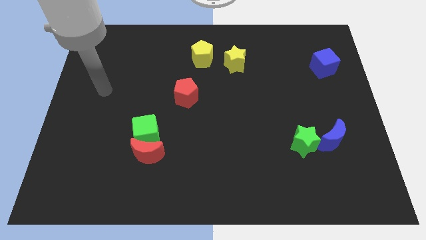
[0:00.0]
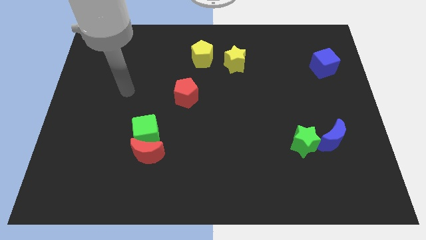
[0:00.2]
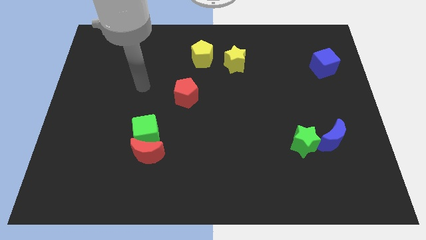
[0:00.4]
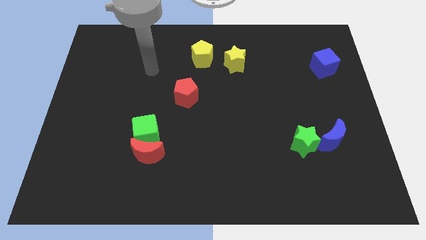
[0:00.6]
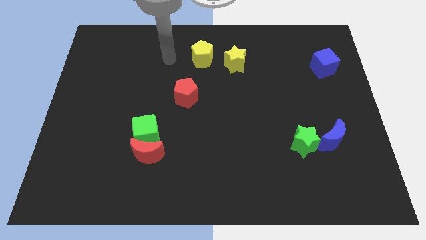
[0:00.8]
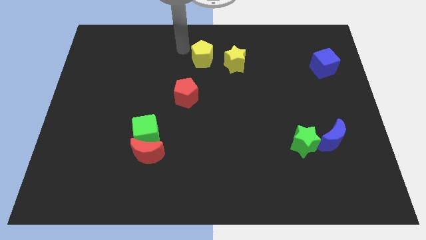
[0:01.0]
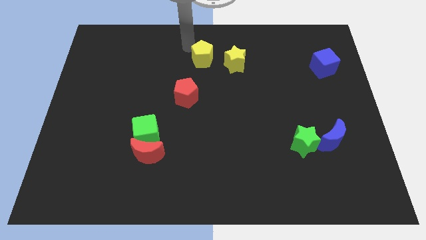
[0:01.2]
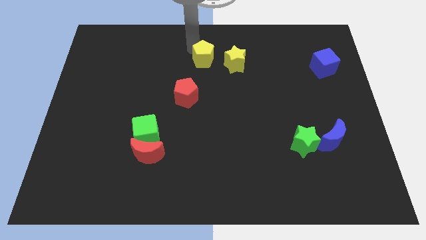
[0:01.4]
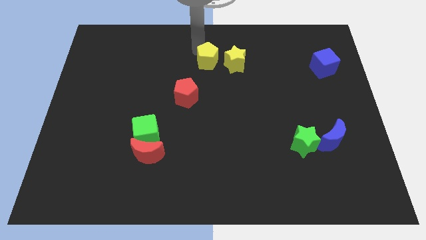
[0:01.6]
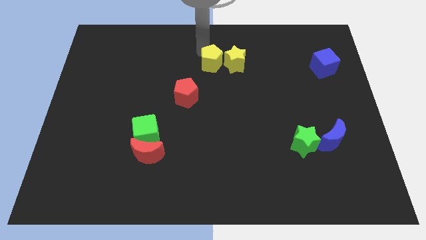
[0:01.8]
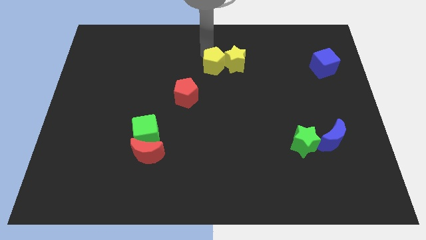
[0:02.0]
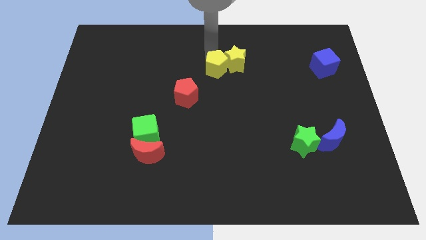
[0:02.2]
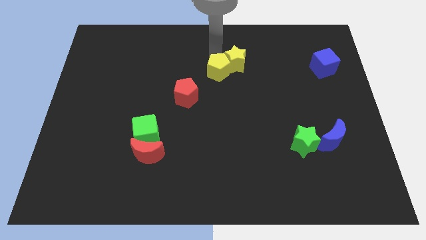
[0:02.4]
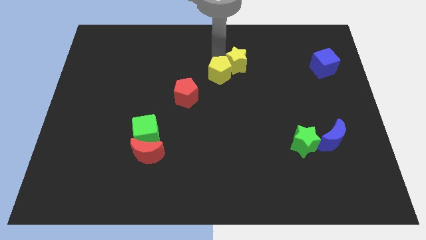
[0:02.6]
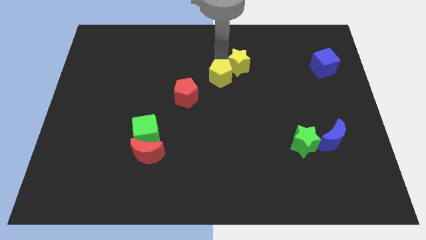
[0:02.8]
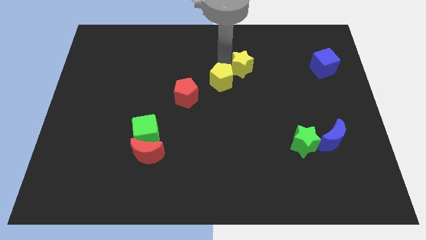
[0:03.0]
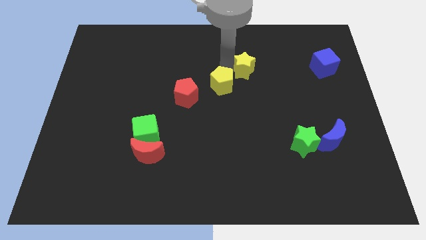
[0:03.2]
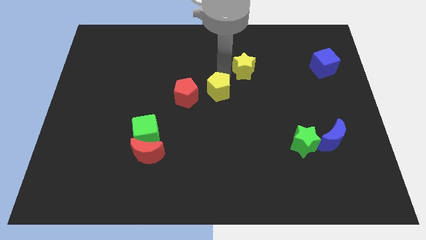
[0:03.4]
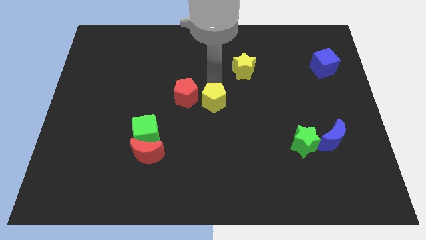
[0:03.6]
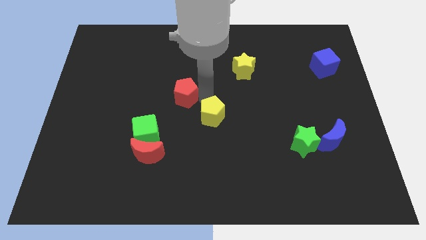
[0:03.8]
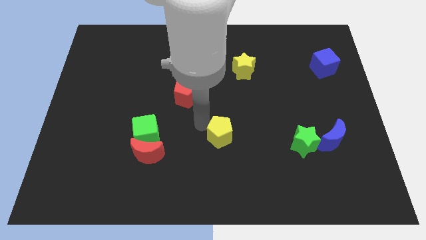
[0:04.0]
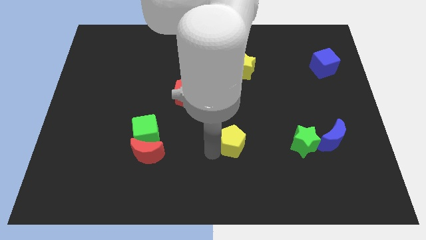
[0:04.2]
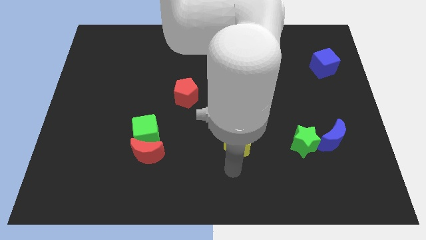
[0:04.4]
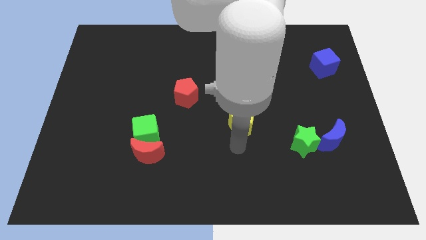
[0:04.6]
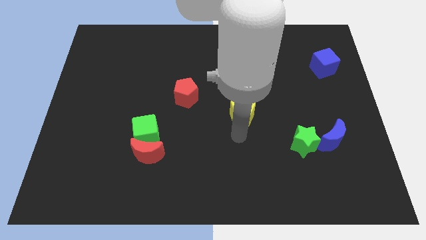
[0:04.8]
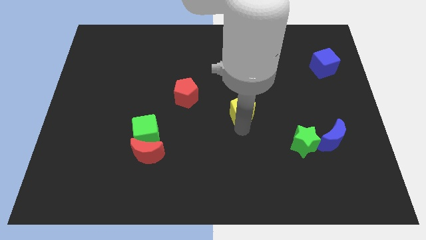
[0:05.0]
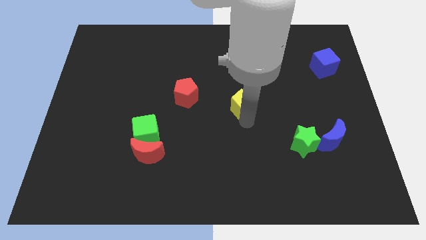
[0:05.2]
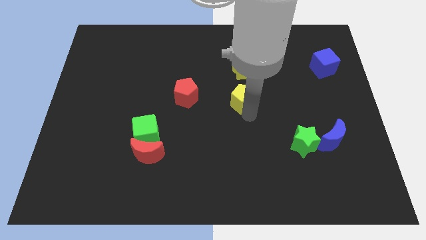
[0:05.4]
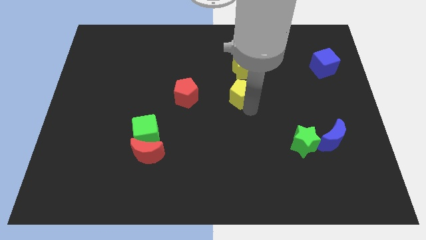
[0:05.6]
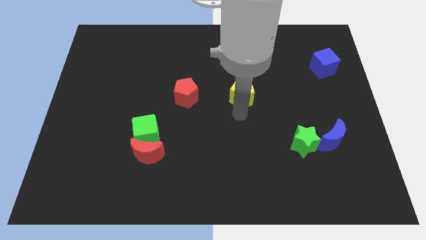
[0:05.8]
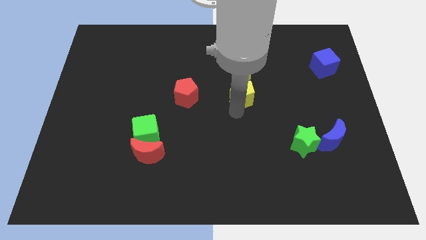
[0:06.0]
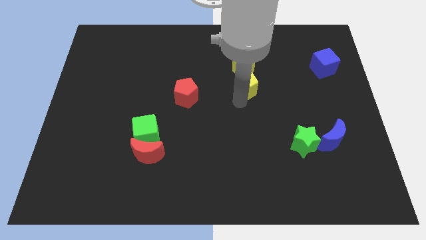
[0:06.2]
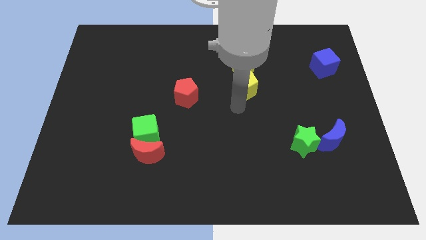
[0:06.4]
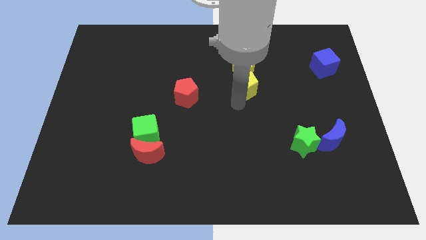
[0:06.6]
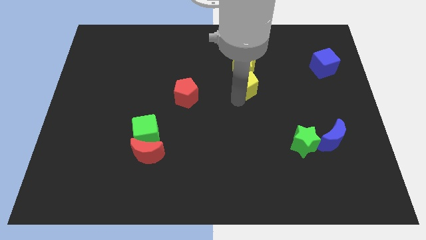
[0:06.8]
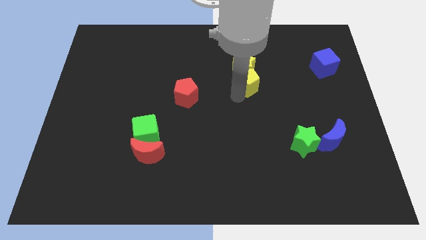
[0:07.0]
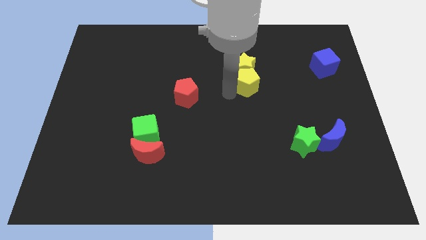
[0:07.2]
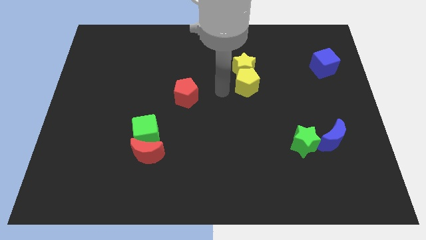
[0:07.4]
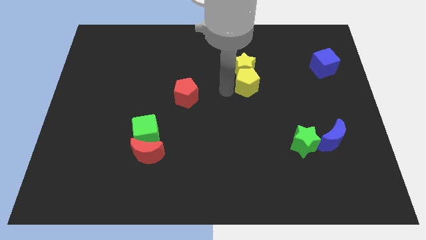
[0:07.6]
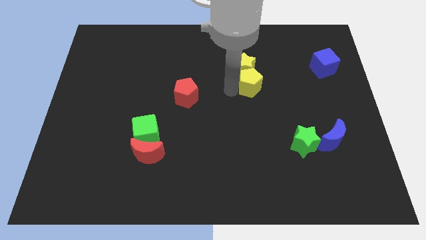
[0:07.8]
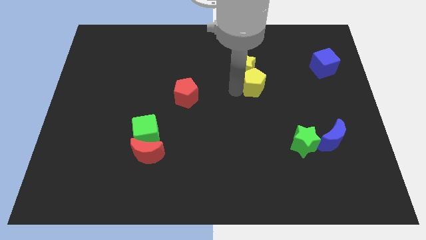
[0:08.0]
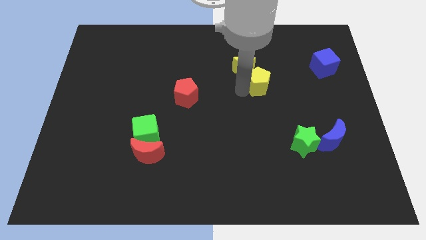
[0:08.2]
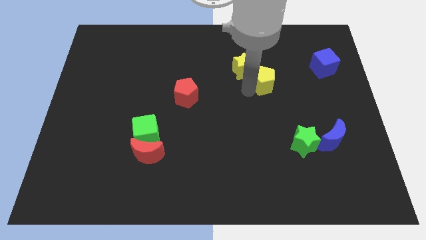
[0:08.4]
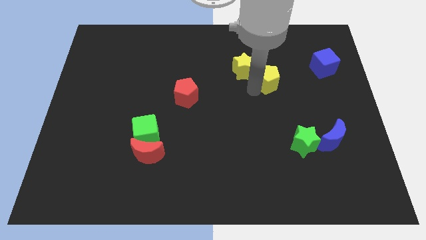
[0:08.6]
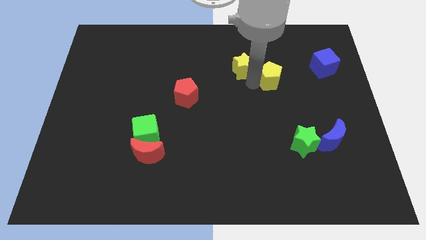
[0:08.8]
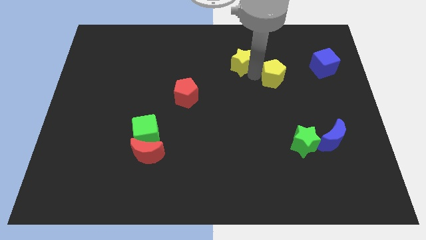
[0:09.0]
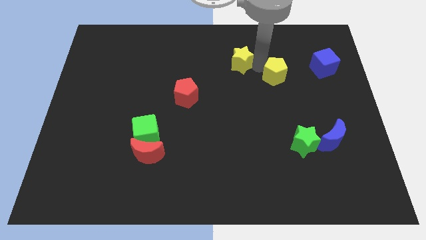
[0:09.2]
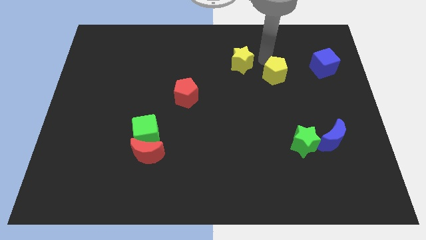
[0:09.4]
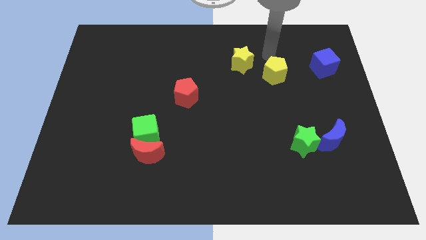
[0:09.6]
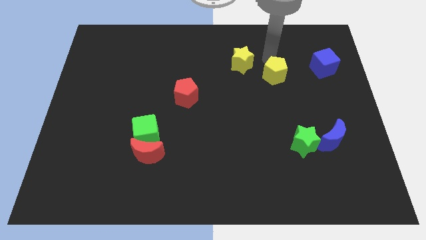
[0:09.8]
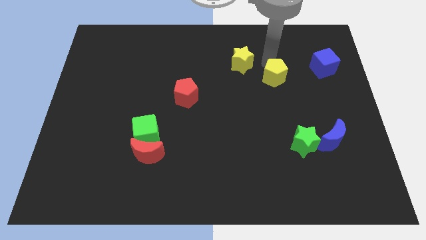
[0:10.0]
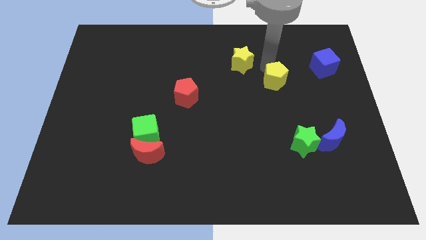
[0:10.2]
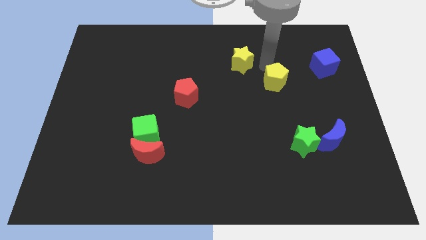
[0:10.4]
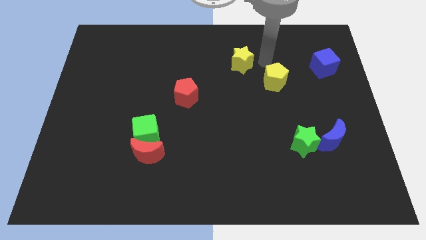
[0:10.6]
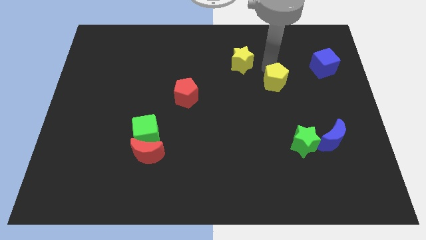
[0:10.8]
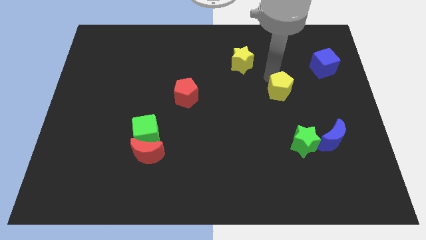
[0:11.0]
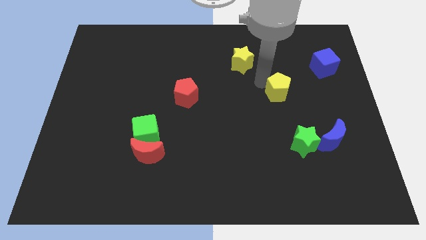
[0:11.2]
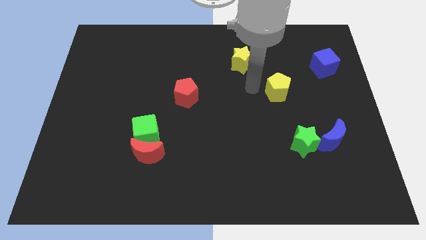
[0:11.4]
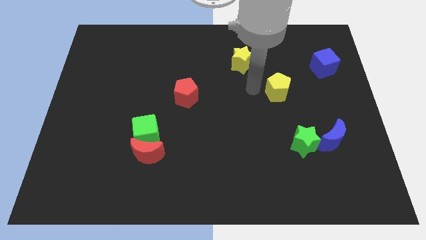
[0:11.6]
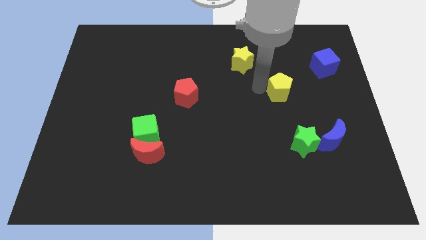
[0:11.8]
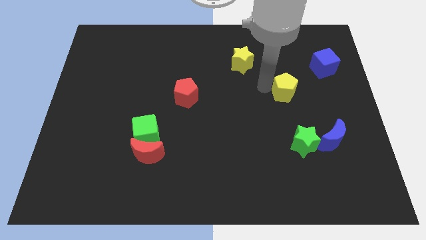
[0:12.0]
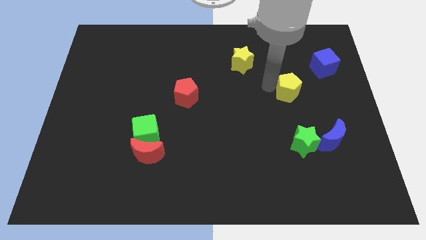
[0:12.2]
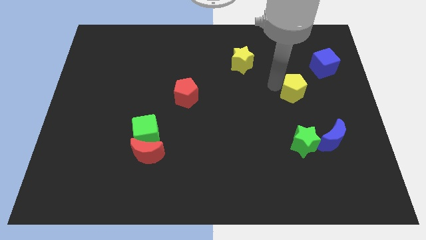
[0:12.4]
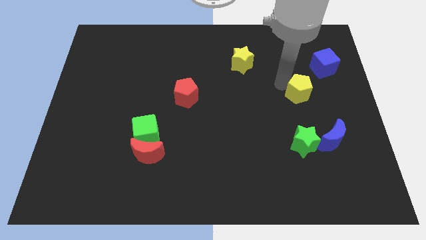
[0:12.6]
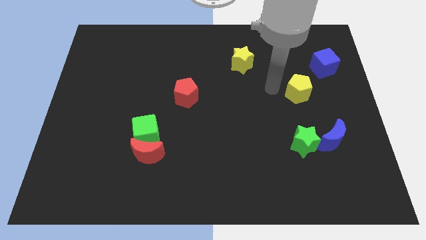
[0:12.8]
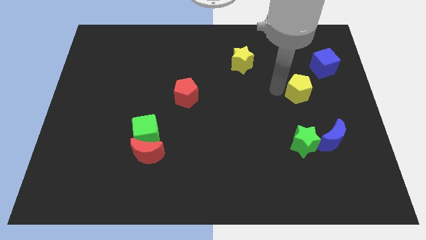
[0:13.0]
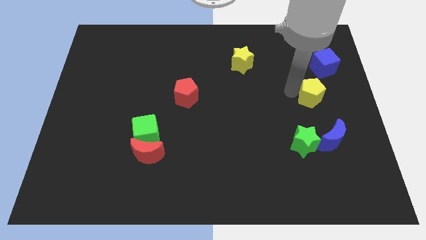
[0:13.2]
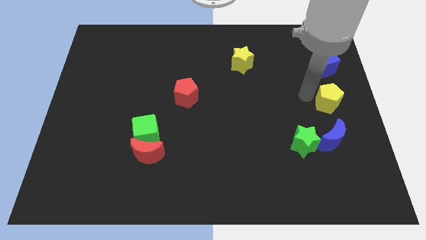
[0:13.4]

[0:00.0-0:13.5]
put the yellow pentagon to the right side of the board
